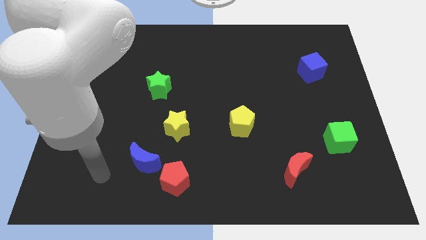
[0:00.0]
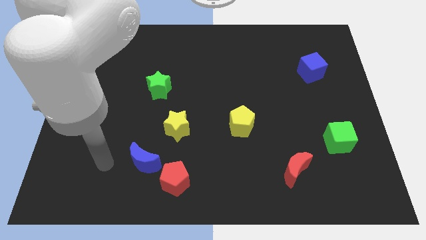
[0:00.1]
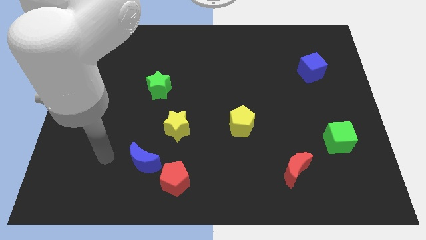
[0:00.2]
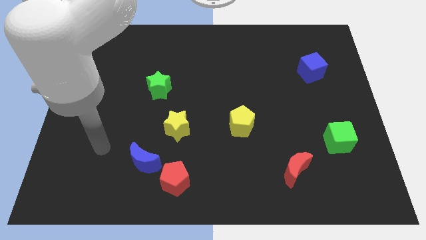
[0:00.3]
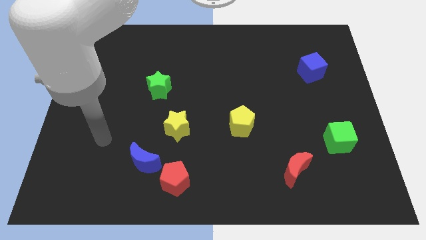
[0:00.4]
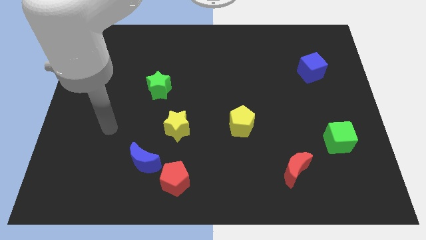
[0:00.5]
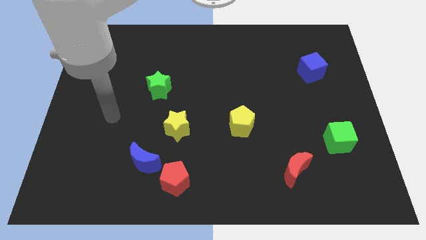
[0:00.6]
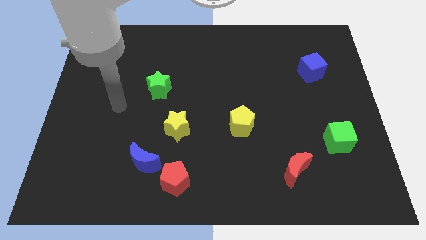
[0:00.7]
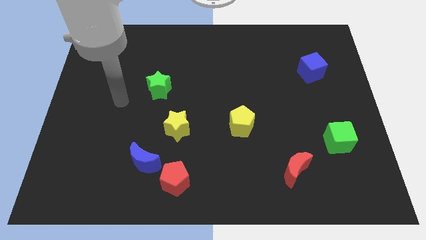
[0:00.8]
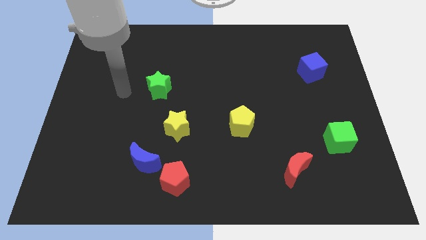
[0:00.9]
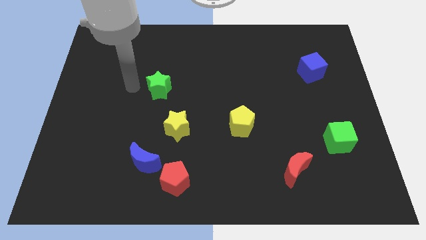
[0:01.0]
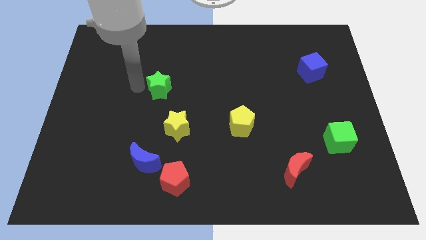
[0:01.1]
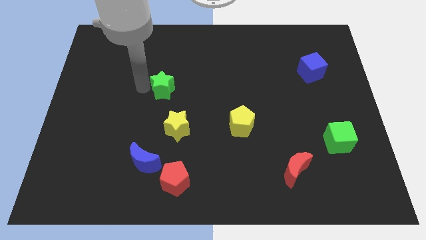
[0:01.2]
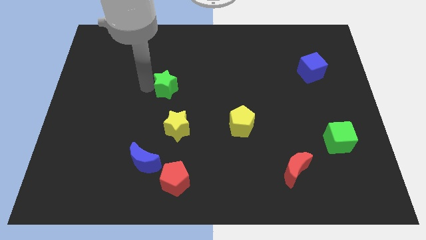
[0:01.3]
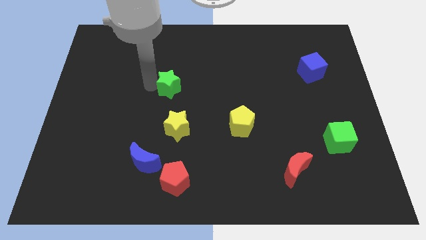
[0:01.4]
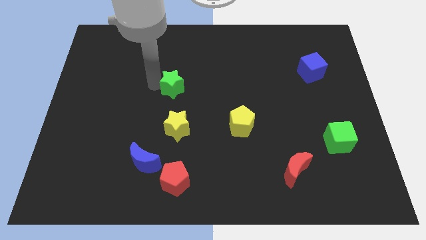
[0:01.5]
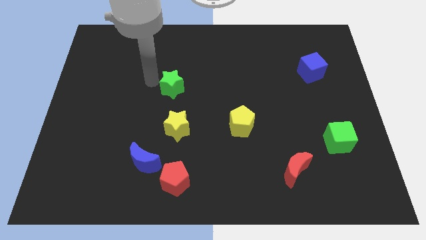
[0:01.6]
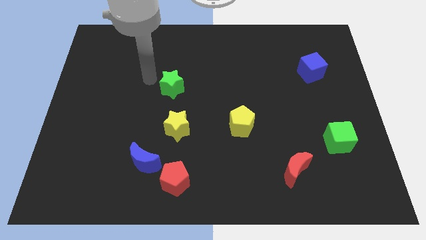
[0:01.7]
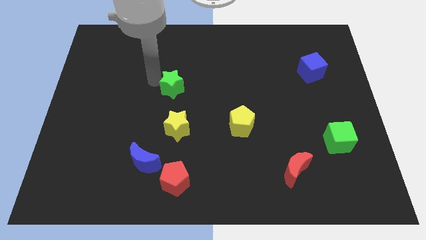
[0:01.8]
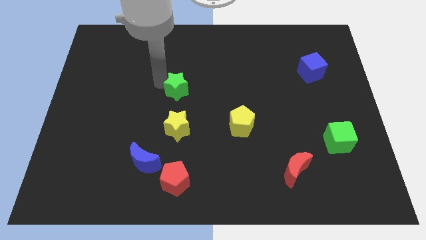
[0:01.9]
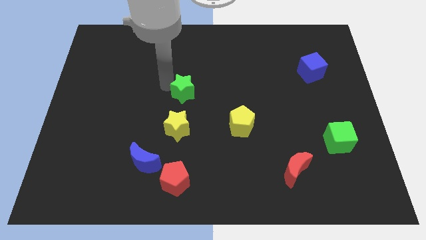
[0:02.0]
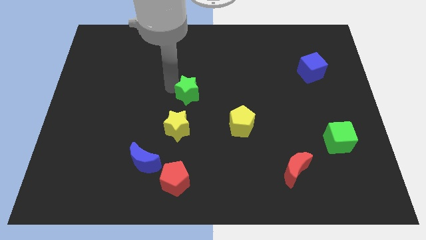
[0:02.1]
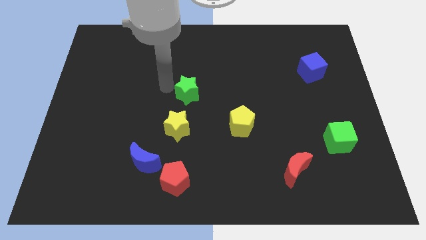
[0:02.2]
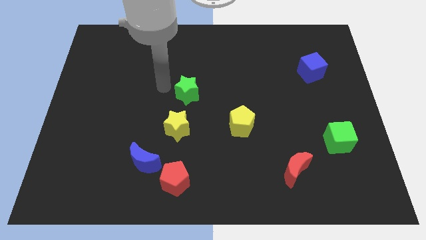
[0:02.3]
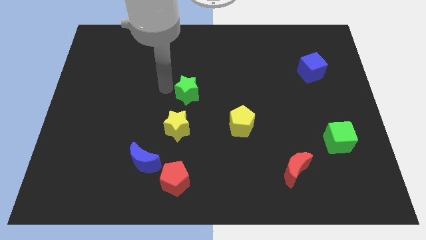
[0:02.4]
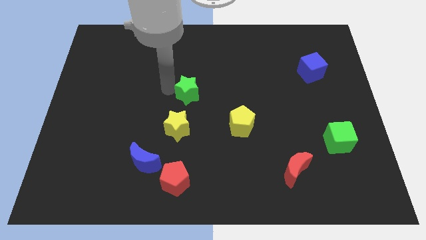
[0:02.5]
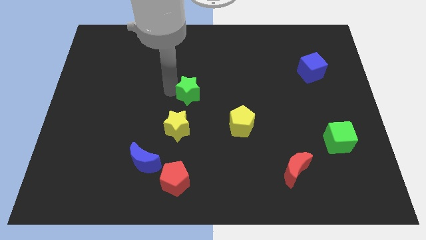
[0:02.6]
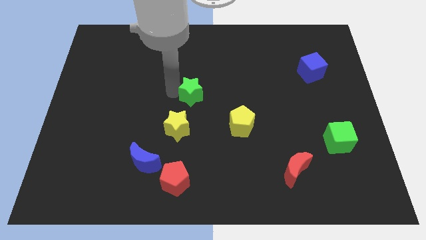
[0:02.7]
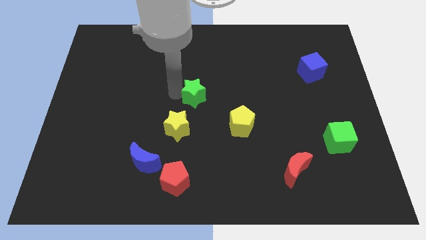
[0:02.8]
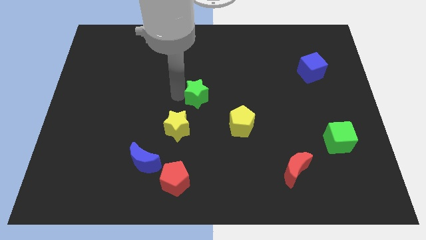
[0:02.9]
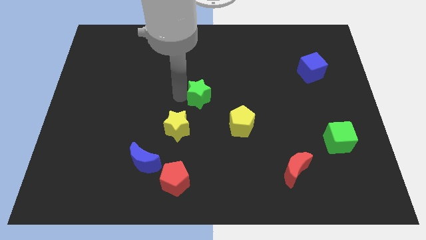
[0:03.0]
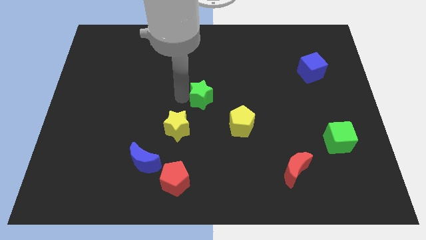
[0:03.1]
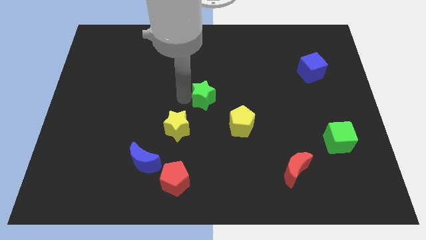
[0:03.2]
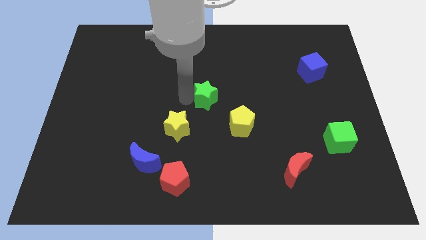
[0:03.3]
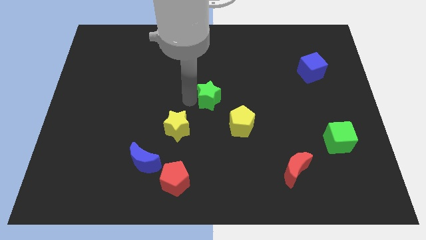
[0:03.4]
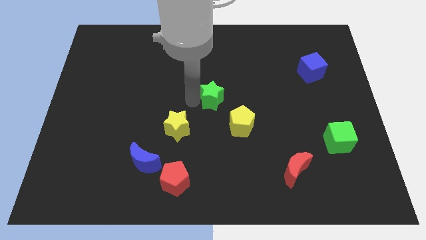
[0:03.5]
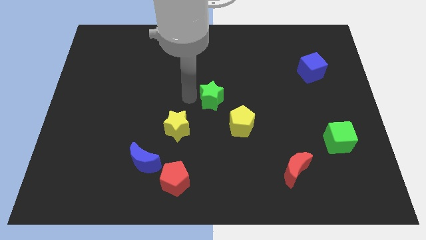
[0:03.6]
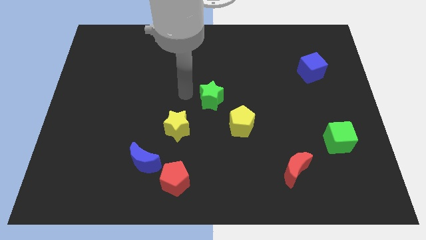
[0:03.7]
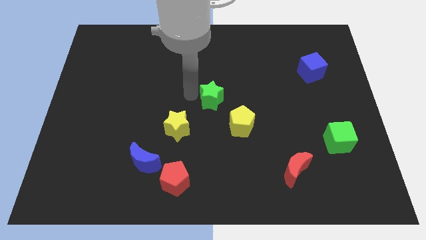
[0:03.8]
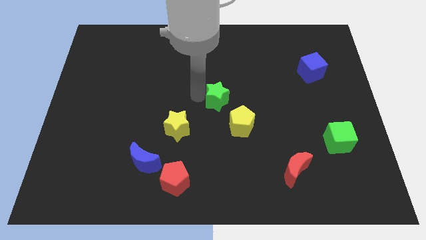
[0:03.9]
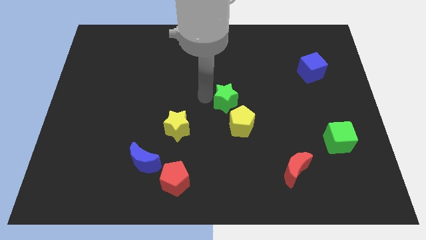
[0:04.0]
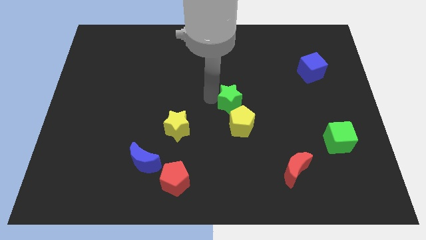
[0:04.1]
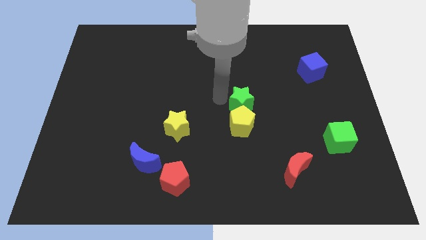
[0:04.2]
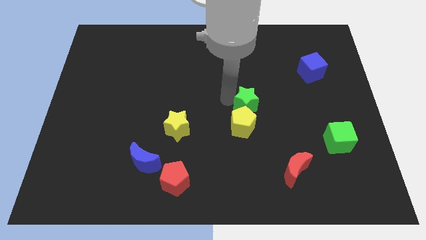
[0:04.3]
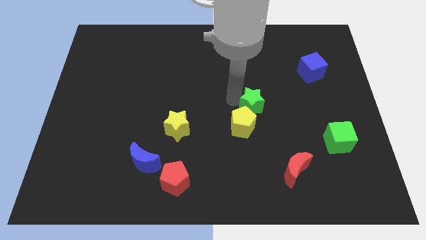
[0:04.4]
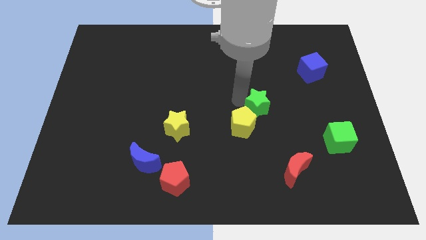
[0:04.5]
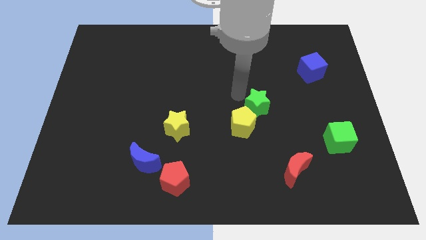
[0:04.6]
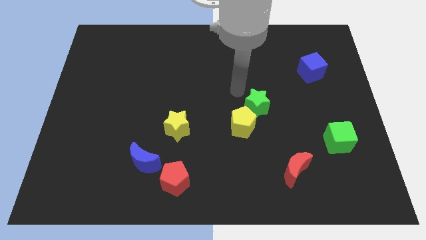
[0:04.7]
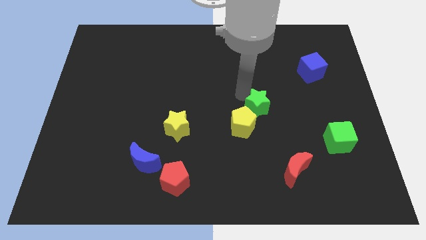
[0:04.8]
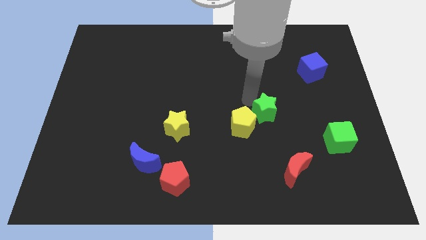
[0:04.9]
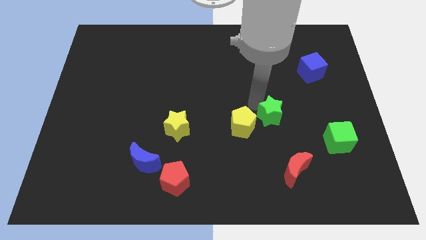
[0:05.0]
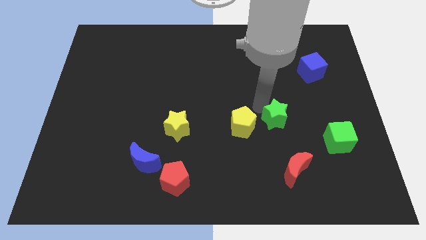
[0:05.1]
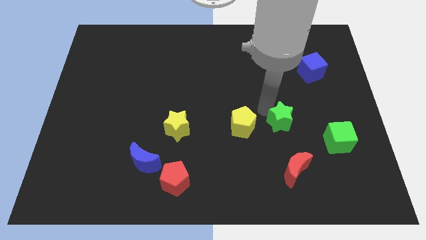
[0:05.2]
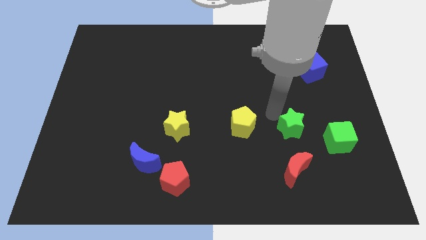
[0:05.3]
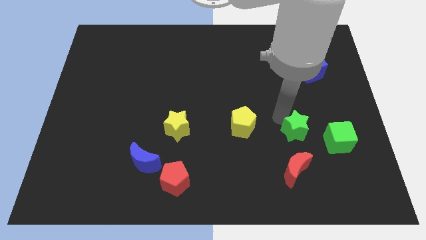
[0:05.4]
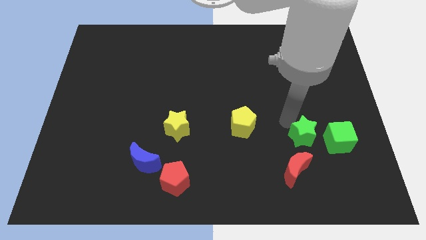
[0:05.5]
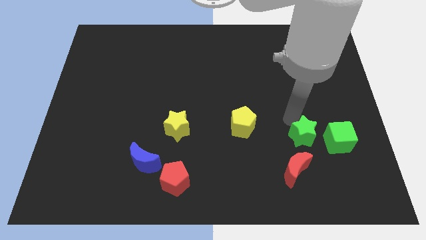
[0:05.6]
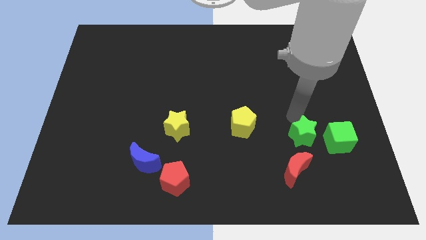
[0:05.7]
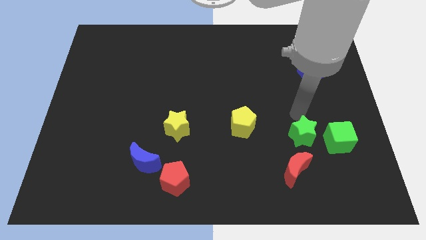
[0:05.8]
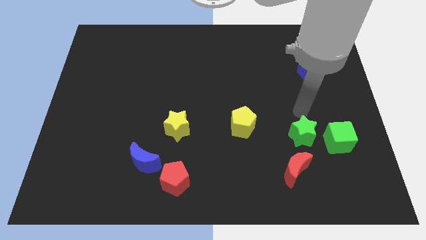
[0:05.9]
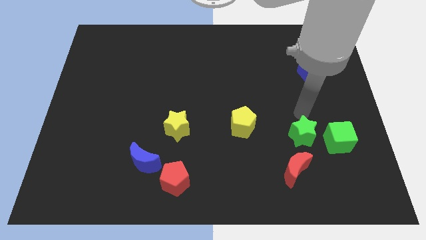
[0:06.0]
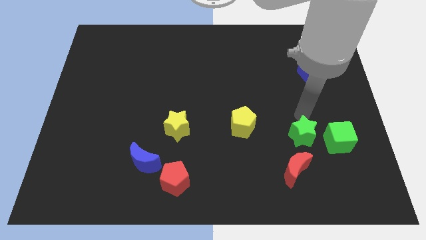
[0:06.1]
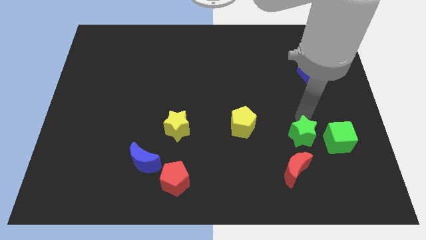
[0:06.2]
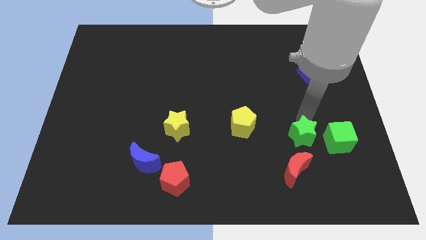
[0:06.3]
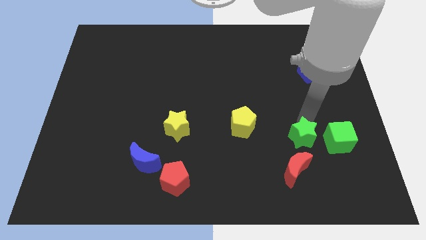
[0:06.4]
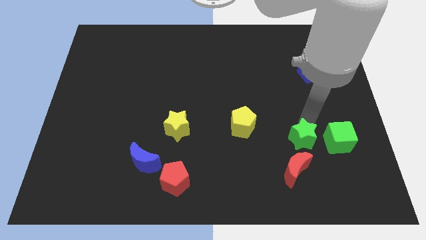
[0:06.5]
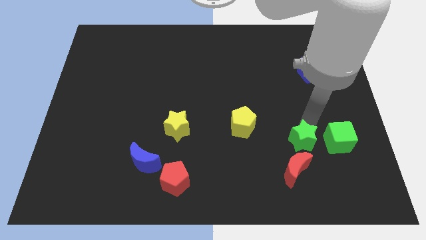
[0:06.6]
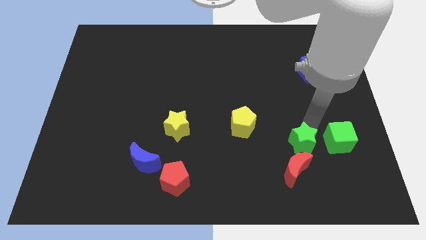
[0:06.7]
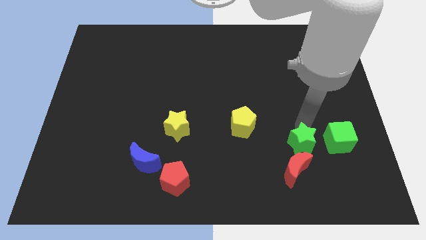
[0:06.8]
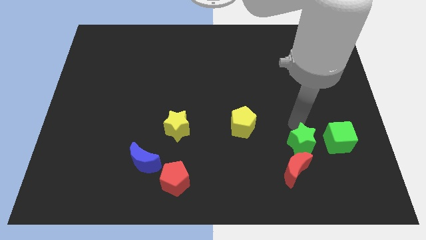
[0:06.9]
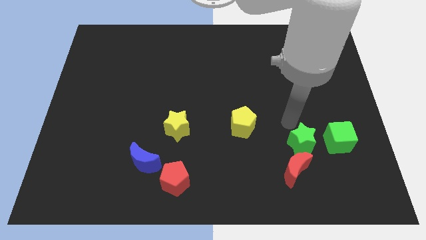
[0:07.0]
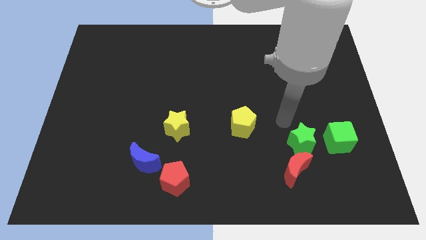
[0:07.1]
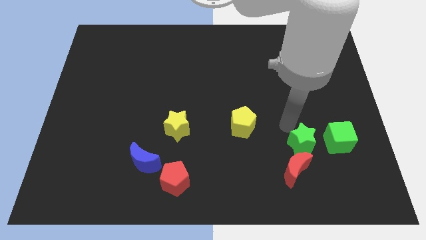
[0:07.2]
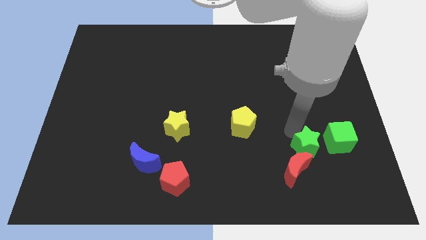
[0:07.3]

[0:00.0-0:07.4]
push the green star to the bottom left side of the green cube
